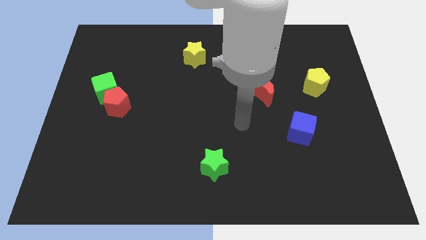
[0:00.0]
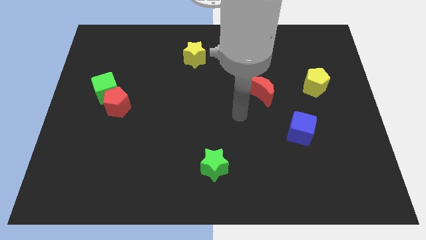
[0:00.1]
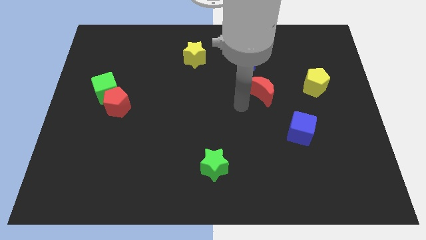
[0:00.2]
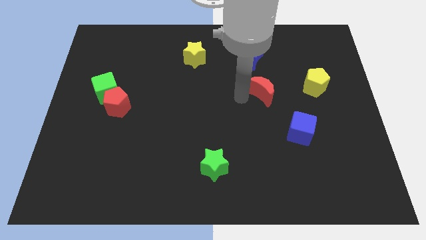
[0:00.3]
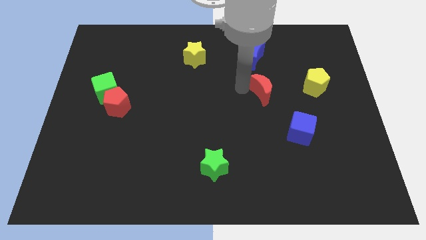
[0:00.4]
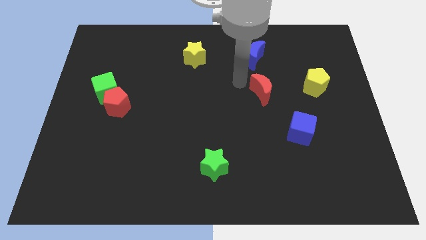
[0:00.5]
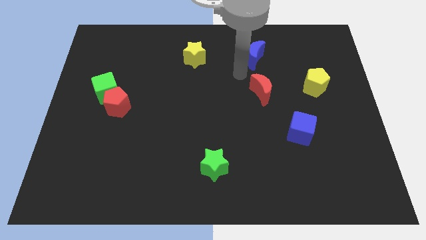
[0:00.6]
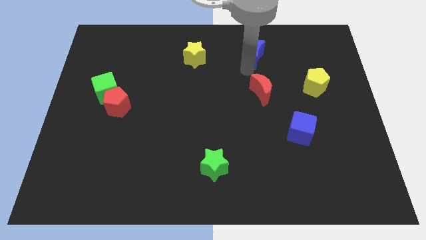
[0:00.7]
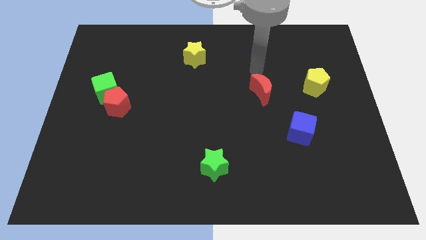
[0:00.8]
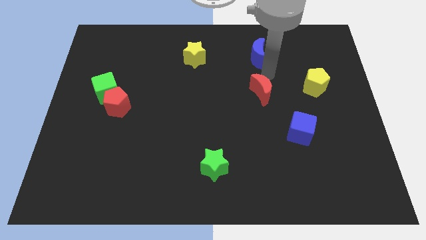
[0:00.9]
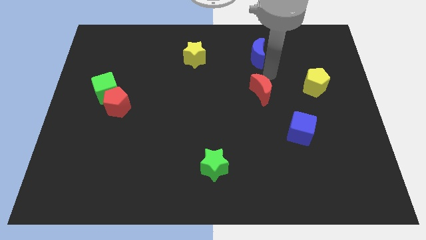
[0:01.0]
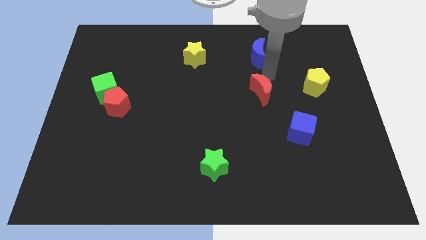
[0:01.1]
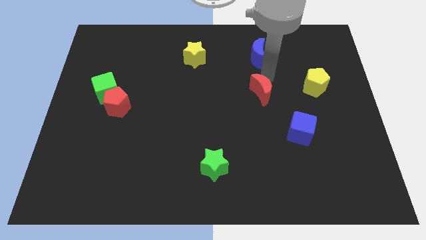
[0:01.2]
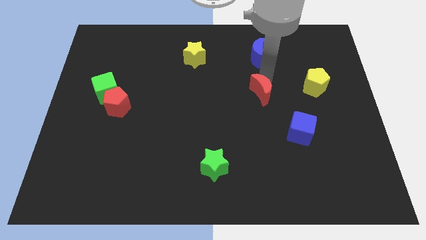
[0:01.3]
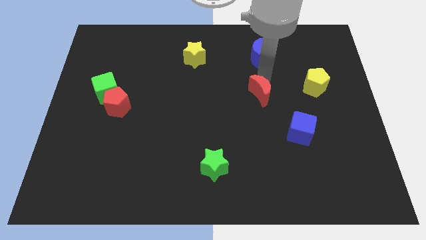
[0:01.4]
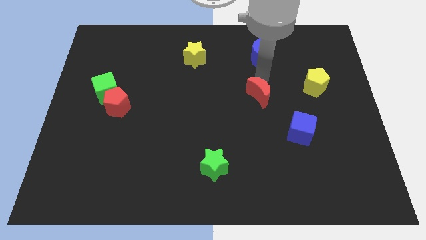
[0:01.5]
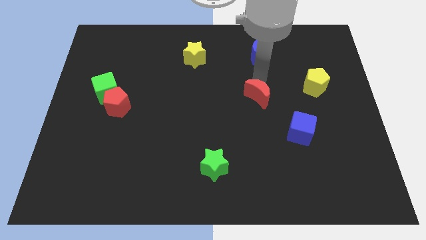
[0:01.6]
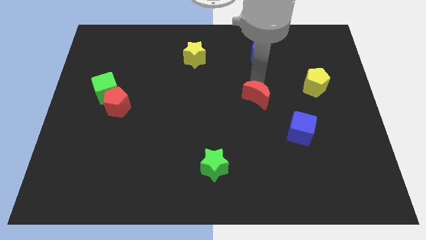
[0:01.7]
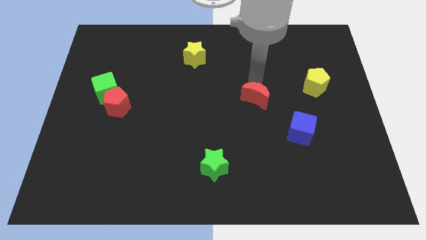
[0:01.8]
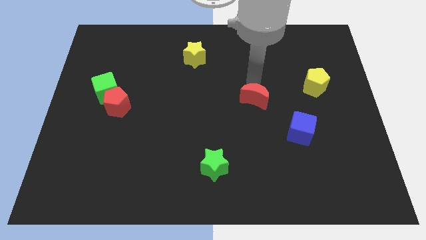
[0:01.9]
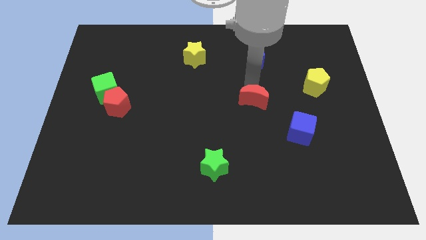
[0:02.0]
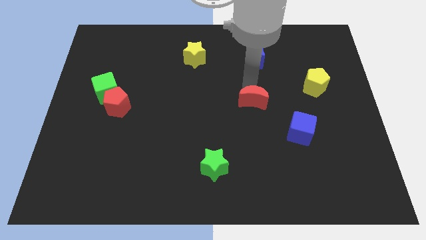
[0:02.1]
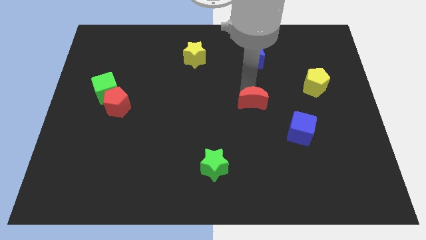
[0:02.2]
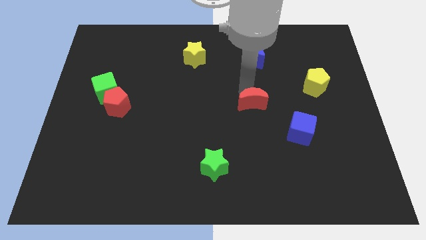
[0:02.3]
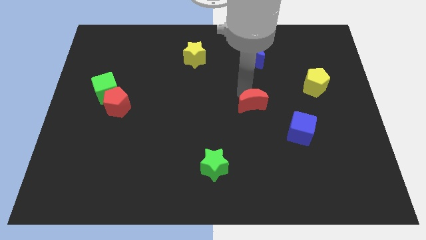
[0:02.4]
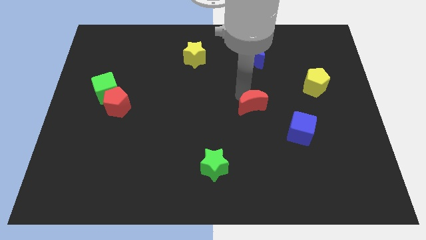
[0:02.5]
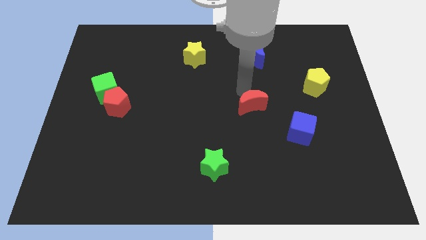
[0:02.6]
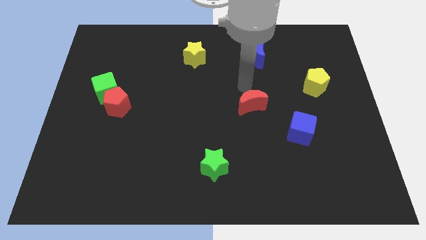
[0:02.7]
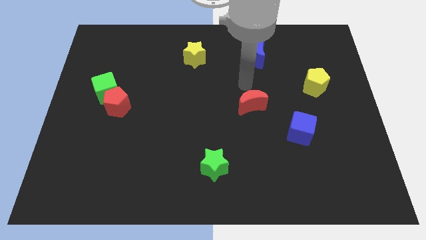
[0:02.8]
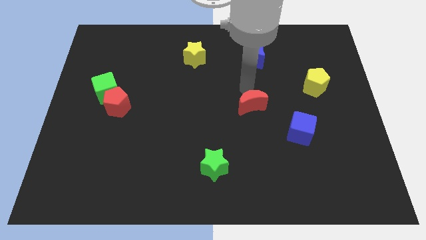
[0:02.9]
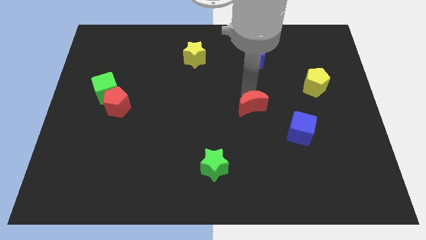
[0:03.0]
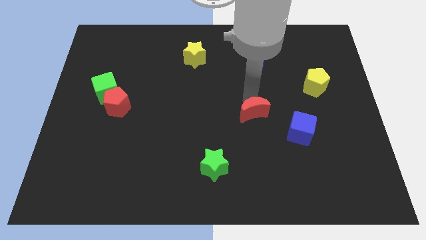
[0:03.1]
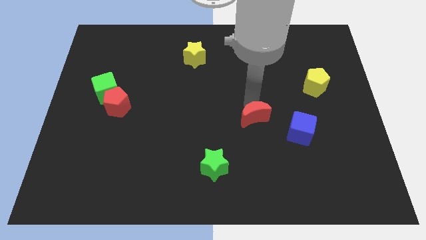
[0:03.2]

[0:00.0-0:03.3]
move the red moon down somewhat

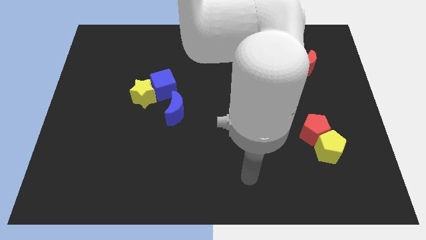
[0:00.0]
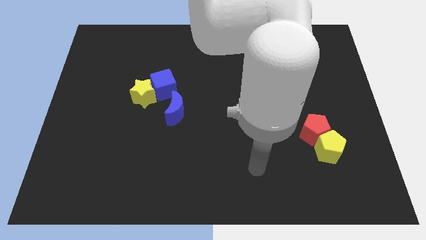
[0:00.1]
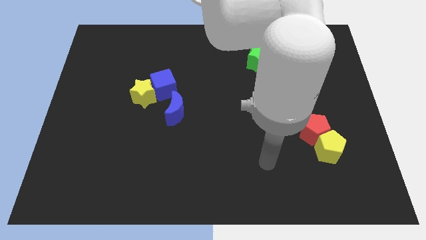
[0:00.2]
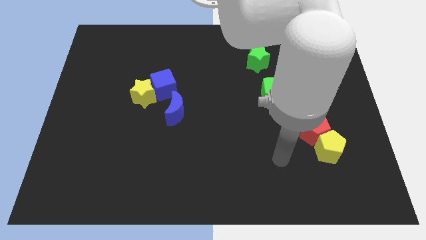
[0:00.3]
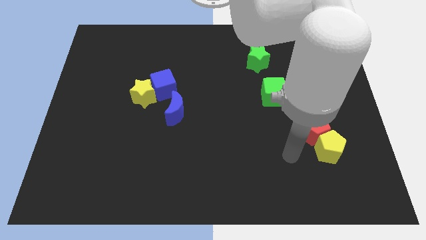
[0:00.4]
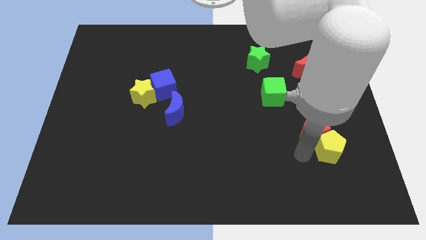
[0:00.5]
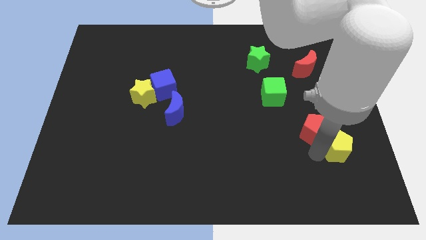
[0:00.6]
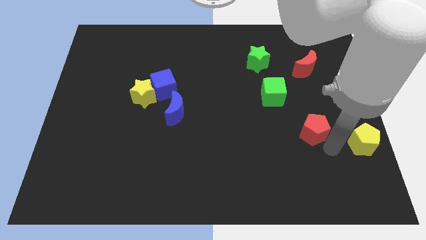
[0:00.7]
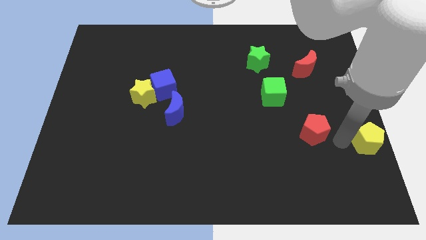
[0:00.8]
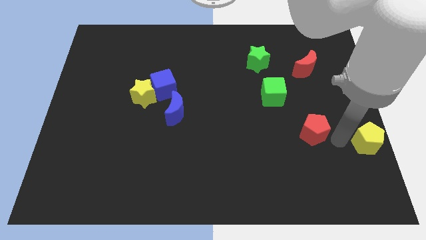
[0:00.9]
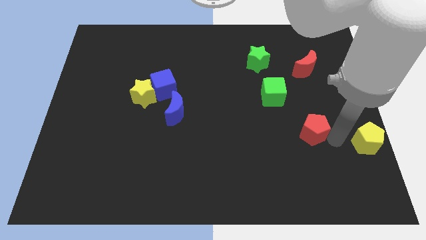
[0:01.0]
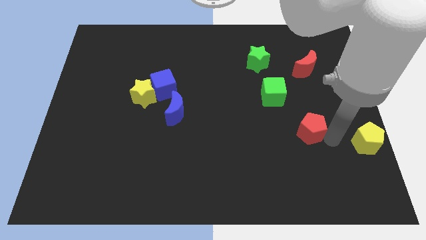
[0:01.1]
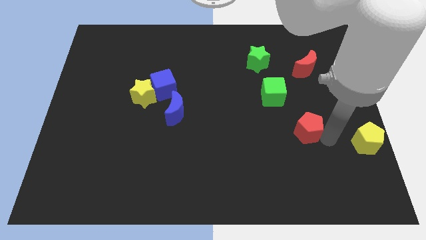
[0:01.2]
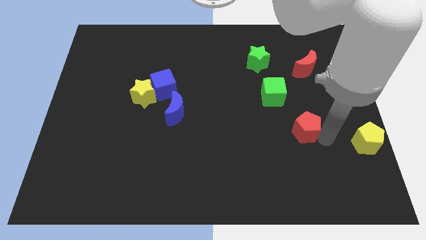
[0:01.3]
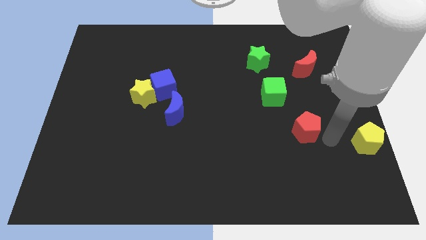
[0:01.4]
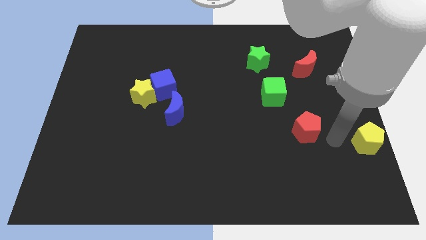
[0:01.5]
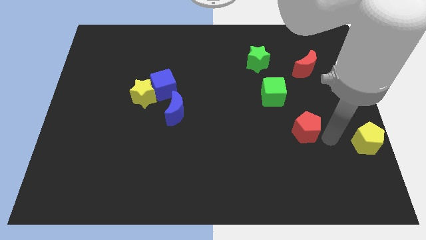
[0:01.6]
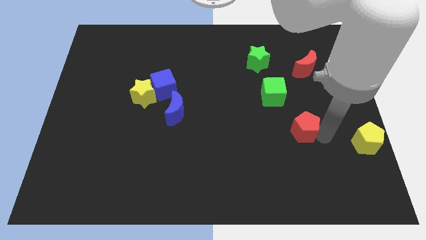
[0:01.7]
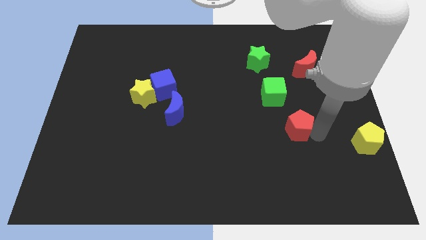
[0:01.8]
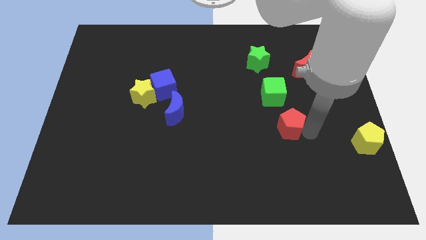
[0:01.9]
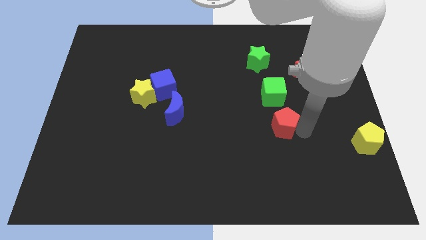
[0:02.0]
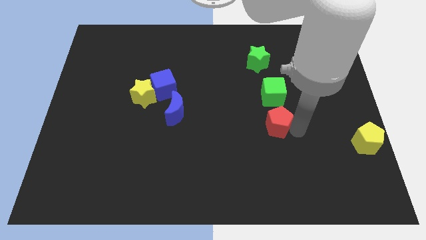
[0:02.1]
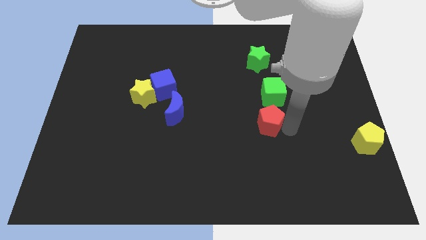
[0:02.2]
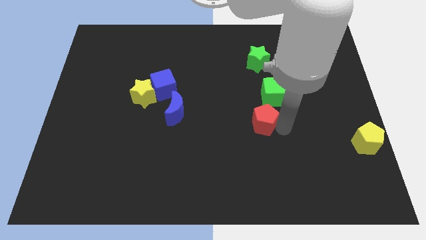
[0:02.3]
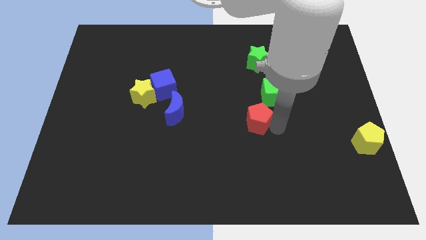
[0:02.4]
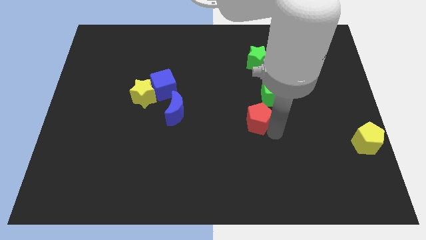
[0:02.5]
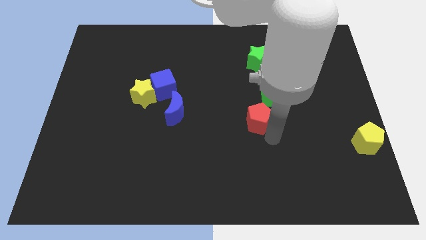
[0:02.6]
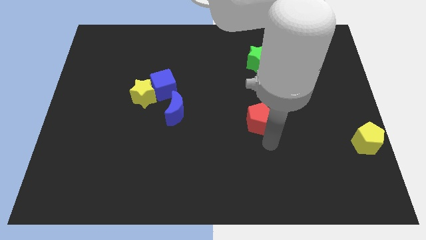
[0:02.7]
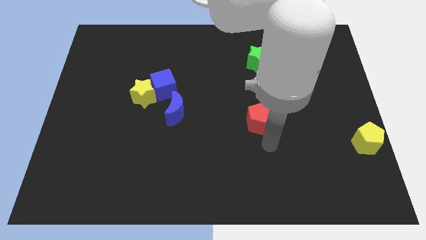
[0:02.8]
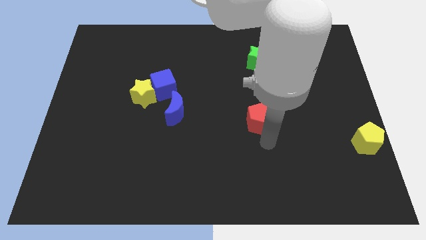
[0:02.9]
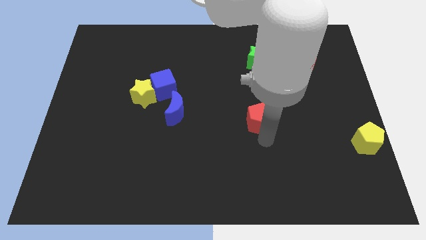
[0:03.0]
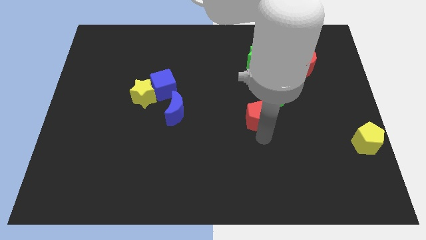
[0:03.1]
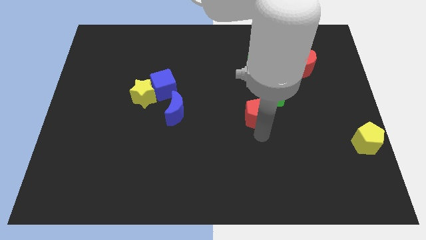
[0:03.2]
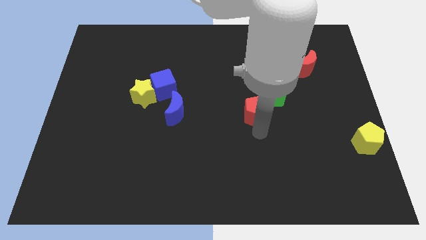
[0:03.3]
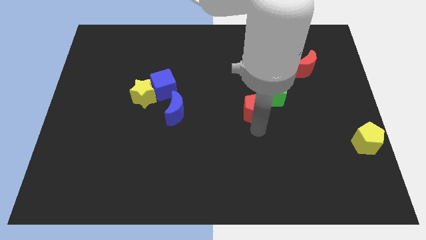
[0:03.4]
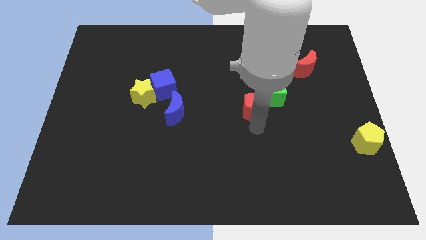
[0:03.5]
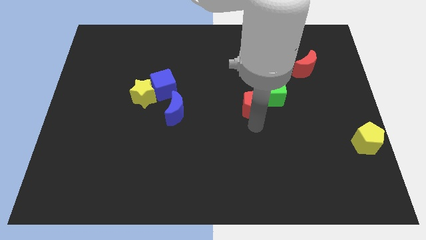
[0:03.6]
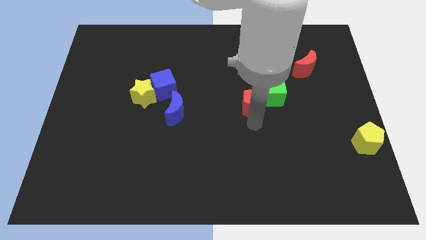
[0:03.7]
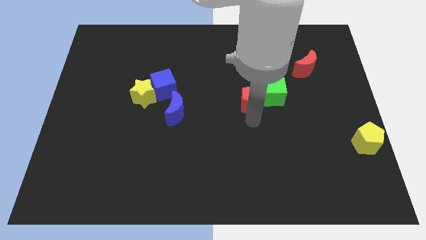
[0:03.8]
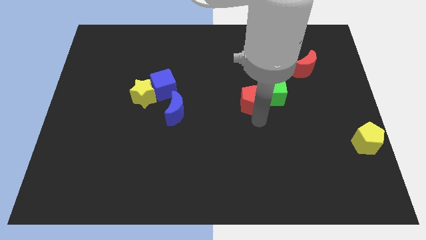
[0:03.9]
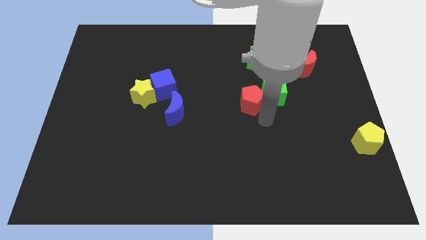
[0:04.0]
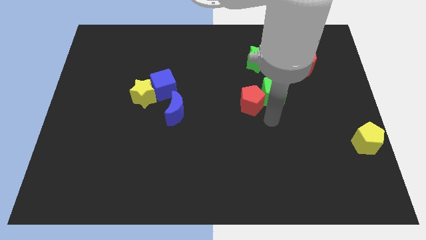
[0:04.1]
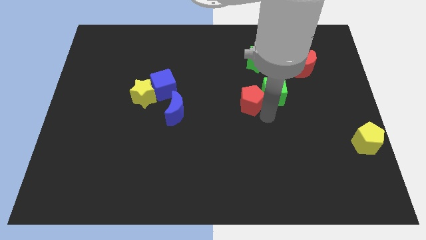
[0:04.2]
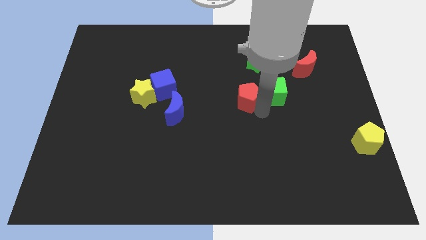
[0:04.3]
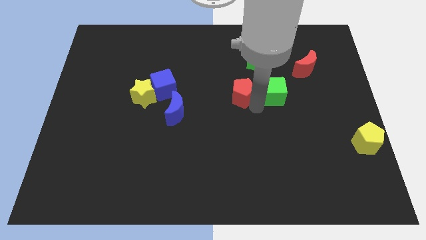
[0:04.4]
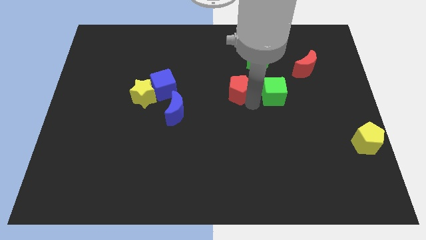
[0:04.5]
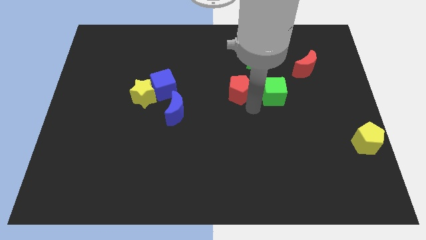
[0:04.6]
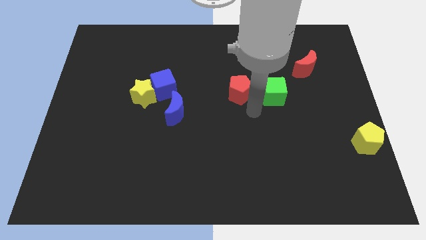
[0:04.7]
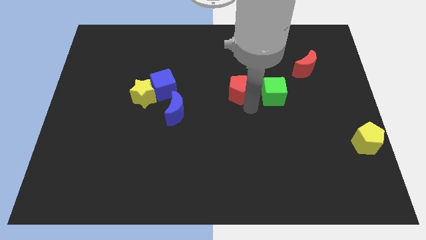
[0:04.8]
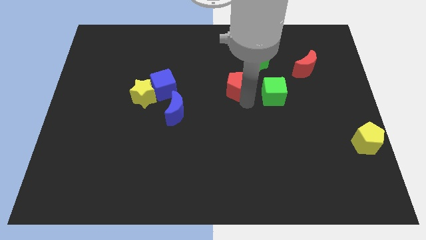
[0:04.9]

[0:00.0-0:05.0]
push the red pentagon up and then left
